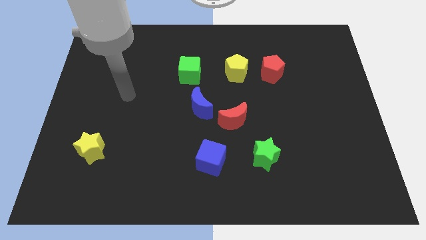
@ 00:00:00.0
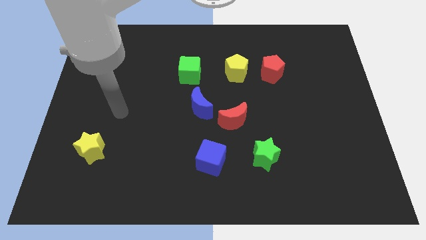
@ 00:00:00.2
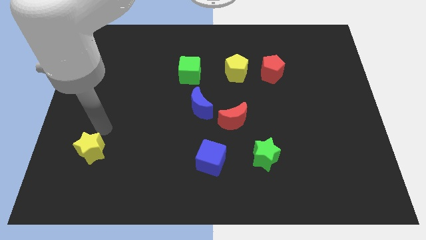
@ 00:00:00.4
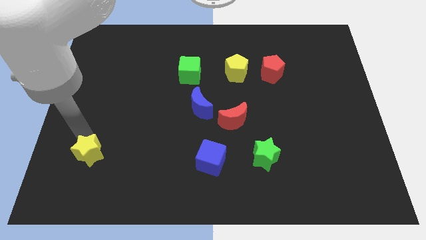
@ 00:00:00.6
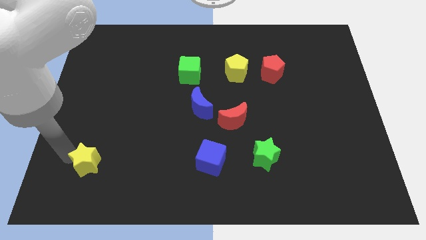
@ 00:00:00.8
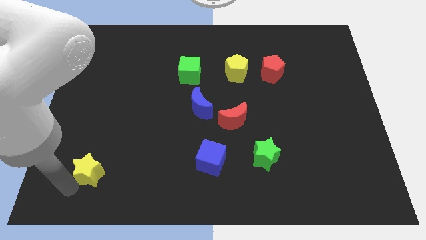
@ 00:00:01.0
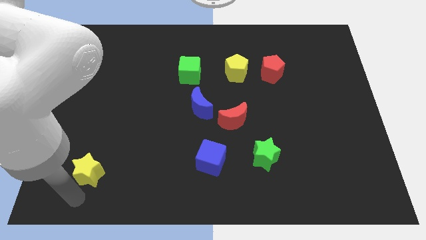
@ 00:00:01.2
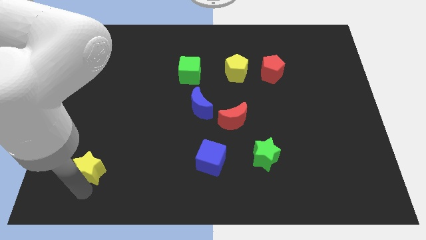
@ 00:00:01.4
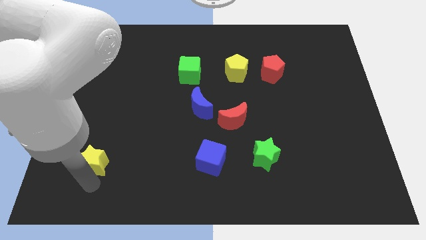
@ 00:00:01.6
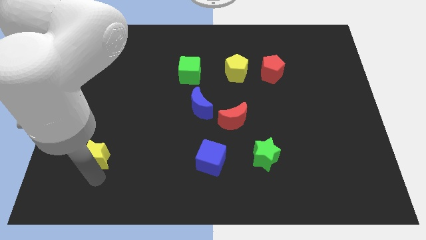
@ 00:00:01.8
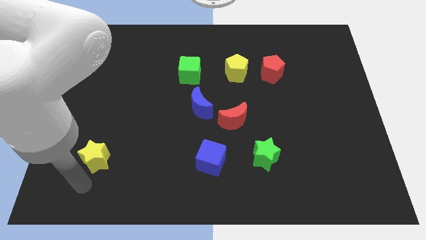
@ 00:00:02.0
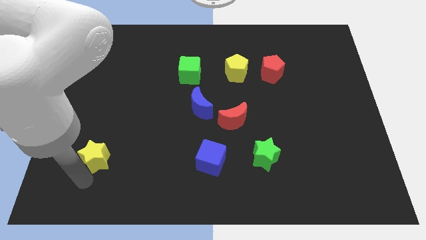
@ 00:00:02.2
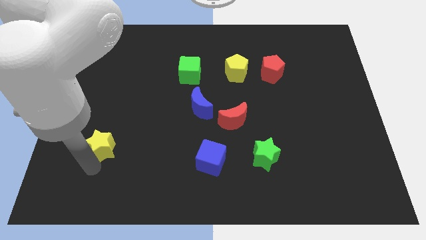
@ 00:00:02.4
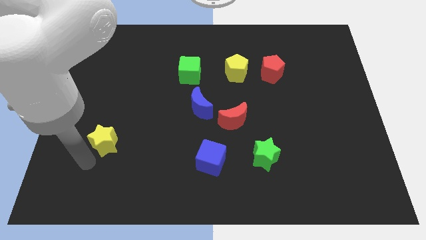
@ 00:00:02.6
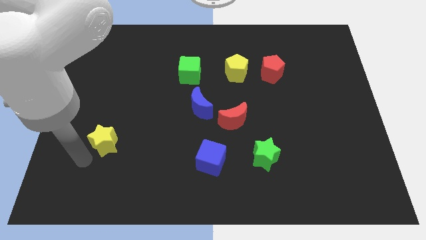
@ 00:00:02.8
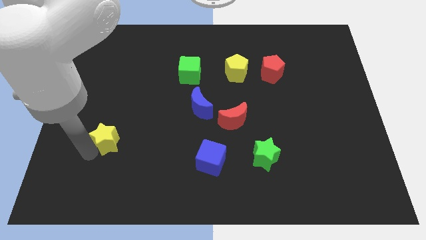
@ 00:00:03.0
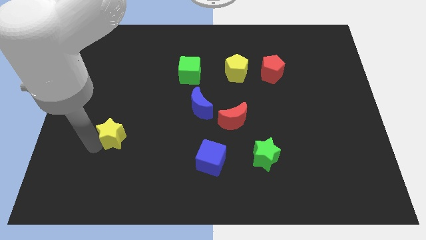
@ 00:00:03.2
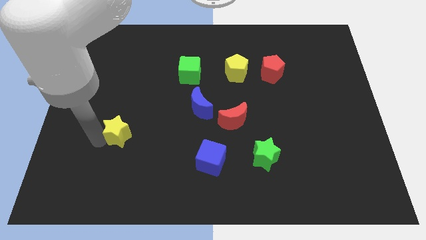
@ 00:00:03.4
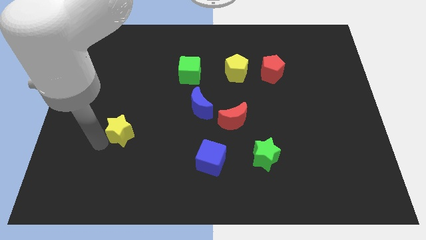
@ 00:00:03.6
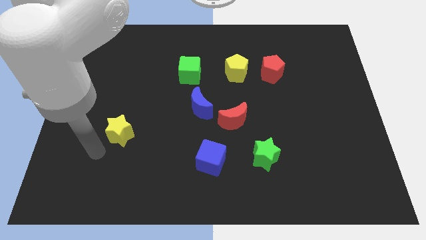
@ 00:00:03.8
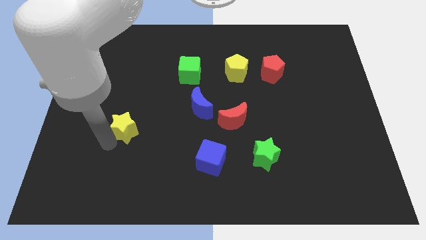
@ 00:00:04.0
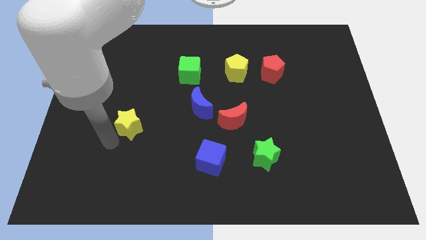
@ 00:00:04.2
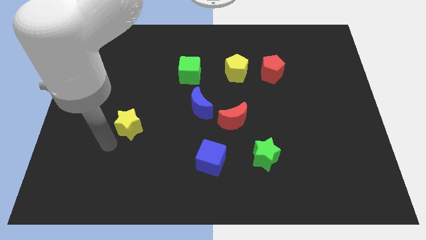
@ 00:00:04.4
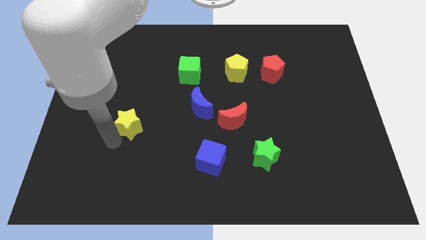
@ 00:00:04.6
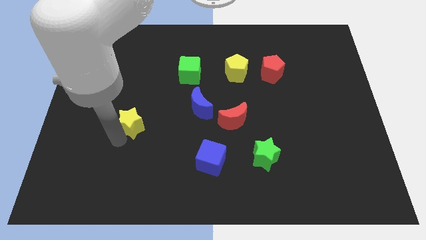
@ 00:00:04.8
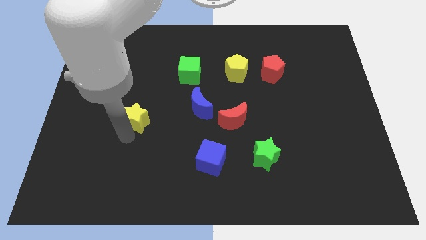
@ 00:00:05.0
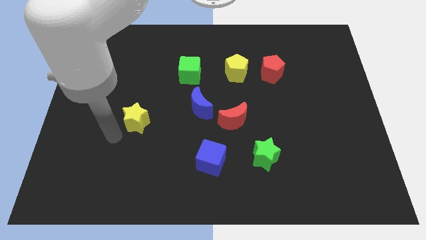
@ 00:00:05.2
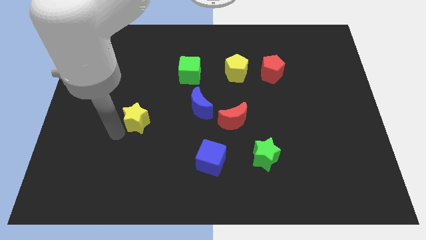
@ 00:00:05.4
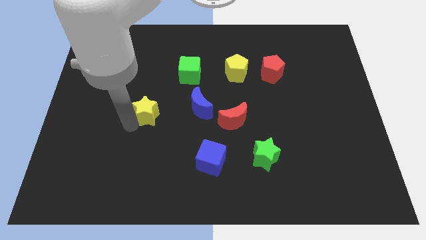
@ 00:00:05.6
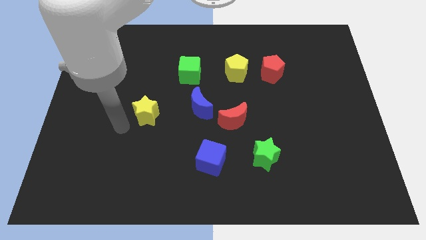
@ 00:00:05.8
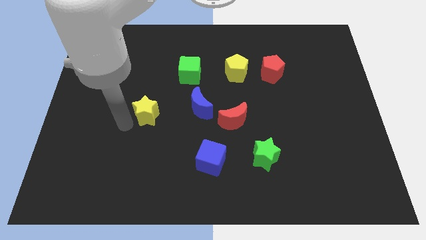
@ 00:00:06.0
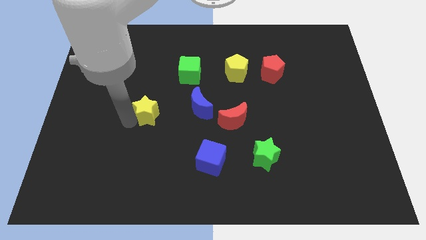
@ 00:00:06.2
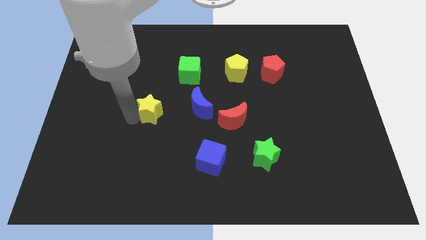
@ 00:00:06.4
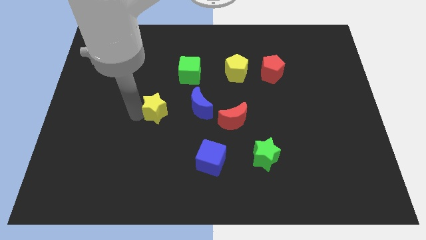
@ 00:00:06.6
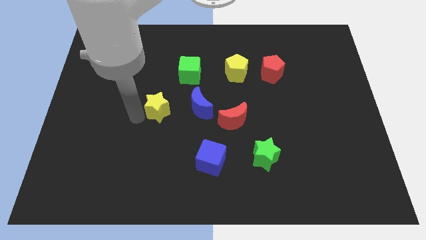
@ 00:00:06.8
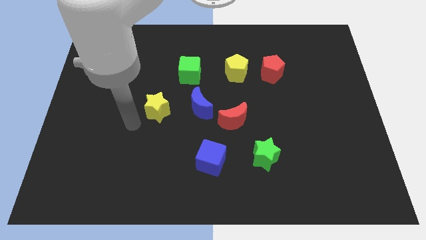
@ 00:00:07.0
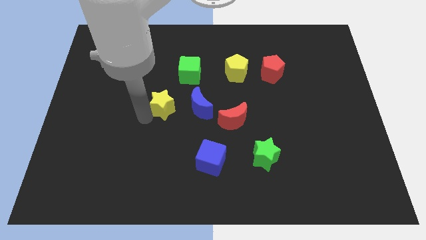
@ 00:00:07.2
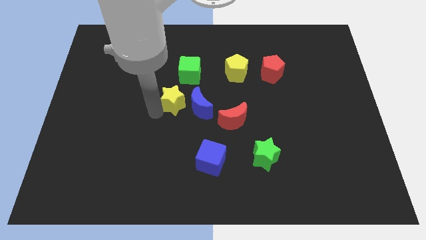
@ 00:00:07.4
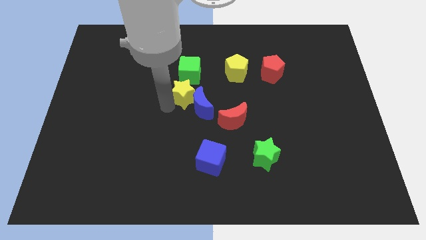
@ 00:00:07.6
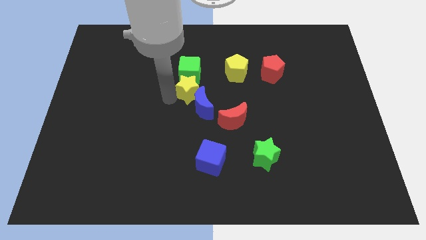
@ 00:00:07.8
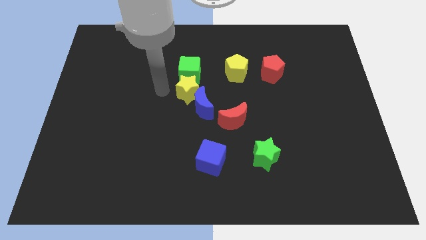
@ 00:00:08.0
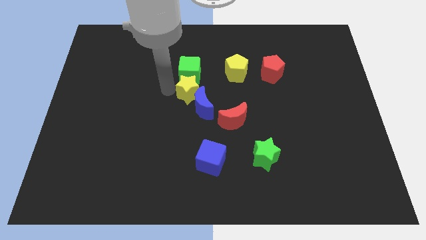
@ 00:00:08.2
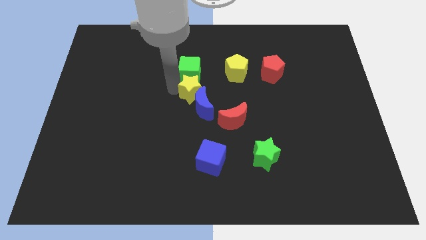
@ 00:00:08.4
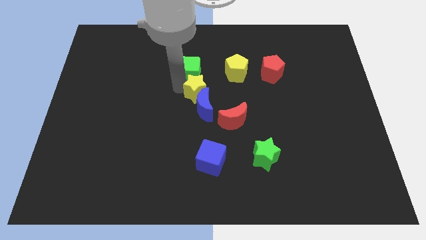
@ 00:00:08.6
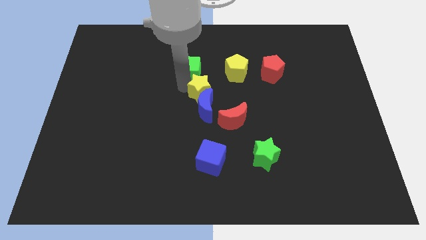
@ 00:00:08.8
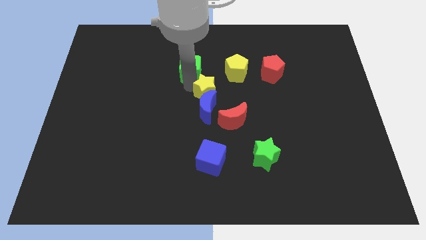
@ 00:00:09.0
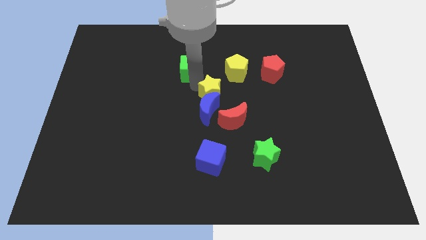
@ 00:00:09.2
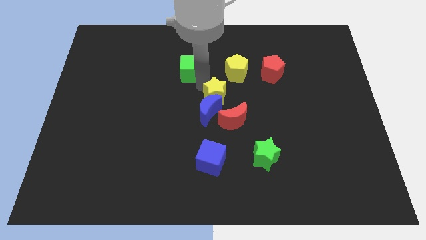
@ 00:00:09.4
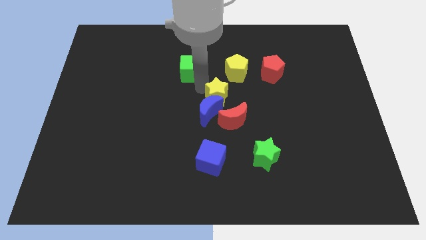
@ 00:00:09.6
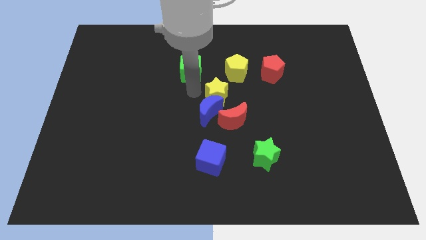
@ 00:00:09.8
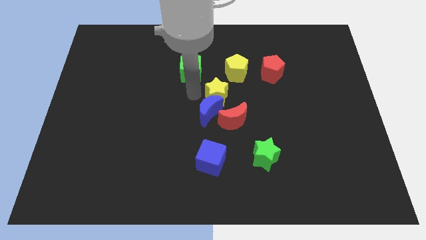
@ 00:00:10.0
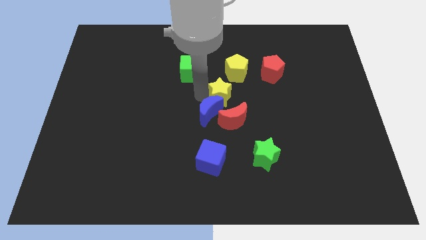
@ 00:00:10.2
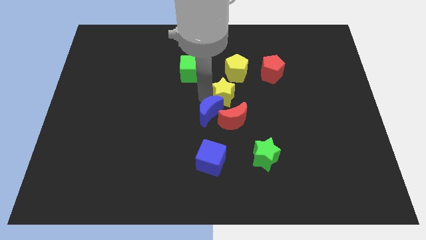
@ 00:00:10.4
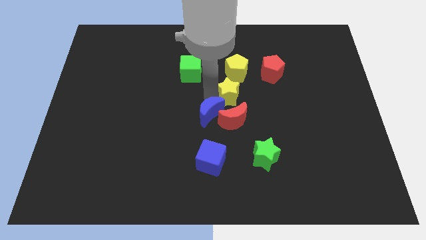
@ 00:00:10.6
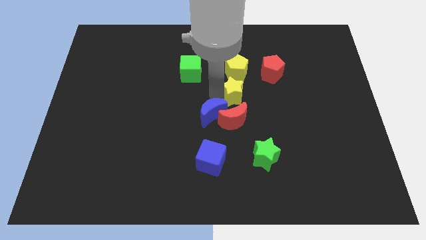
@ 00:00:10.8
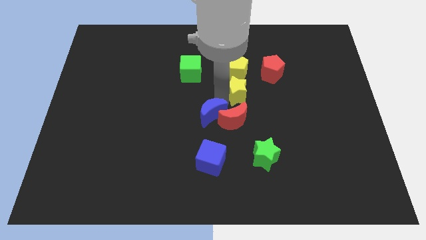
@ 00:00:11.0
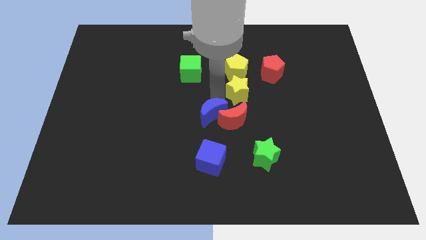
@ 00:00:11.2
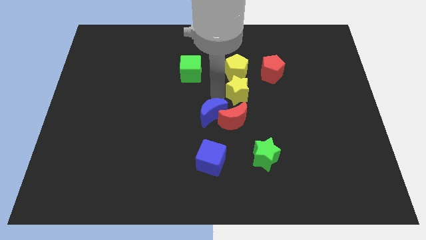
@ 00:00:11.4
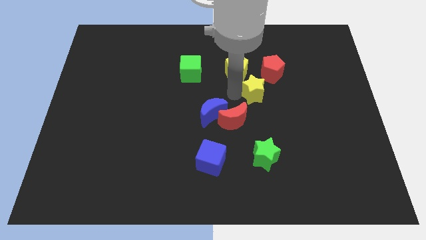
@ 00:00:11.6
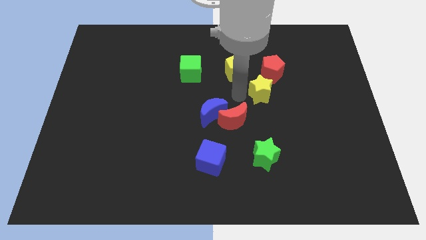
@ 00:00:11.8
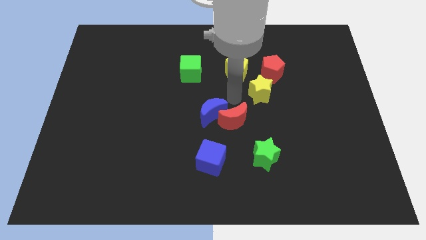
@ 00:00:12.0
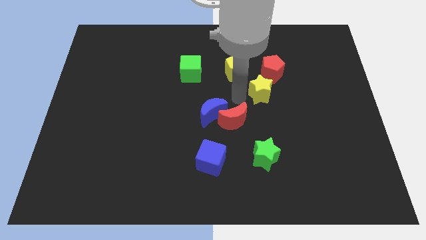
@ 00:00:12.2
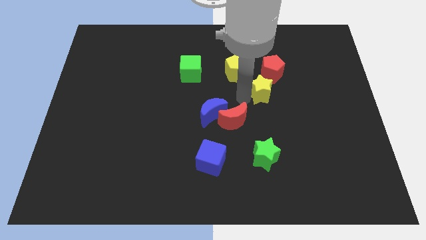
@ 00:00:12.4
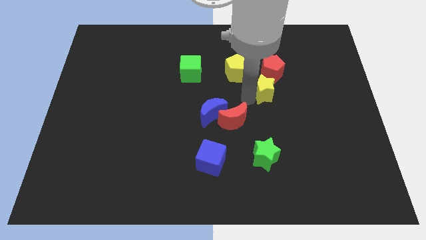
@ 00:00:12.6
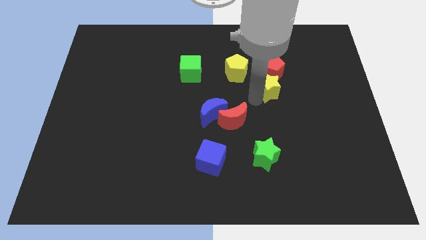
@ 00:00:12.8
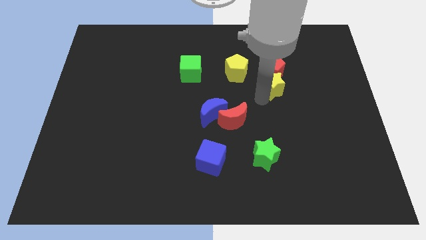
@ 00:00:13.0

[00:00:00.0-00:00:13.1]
move the yellow star to the bottom right side of the red pentagon
